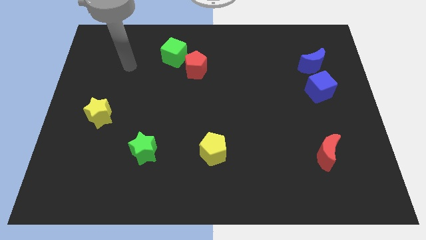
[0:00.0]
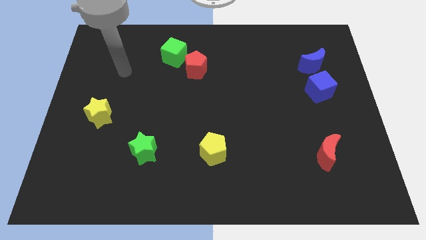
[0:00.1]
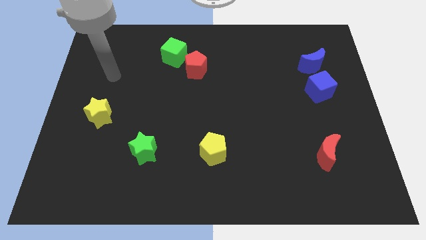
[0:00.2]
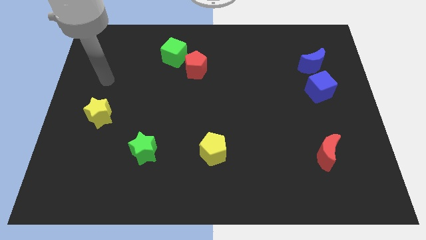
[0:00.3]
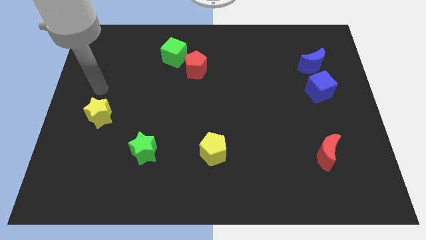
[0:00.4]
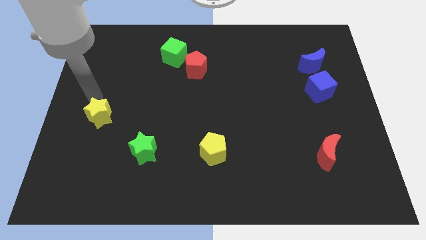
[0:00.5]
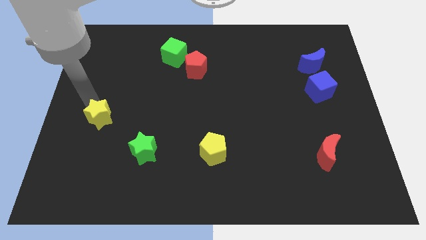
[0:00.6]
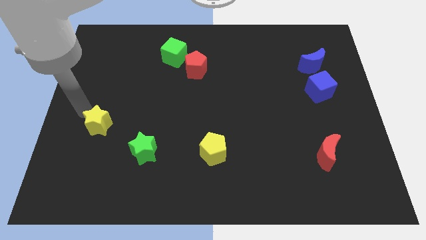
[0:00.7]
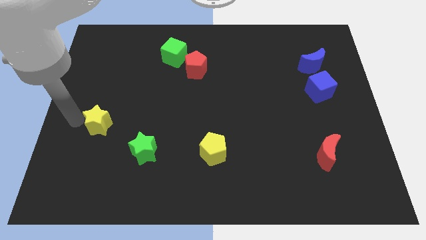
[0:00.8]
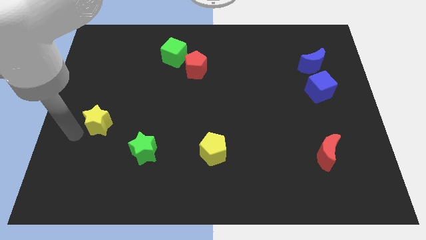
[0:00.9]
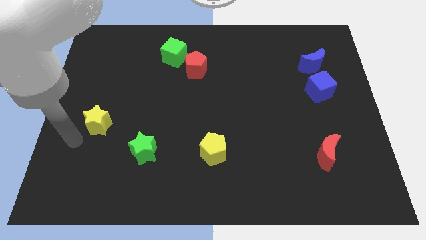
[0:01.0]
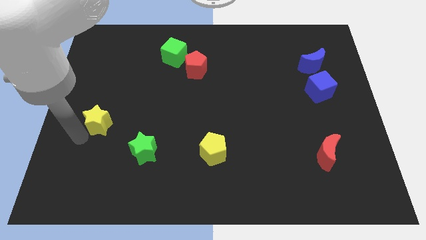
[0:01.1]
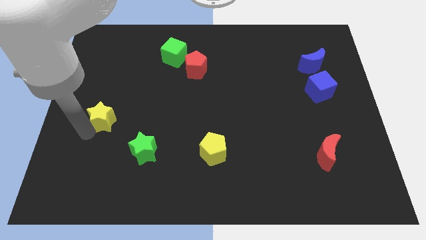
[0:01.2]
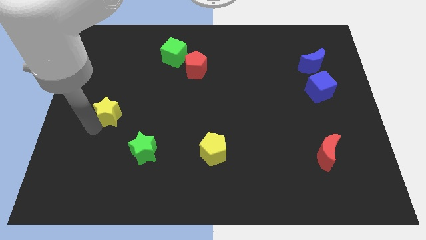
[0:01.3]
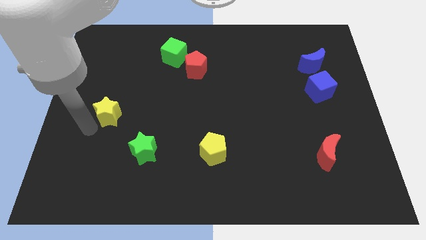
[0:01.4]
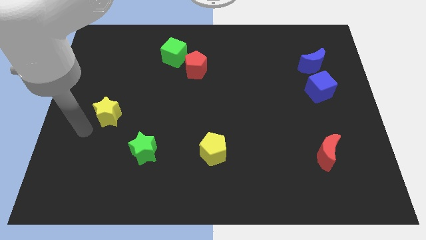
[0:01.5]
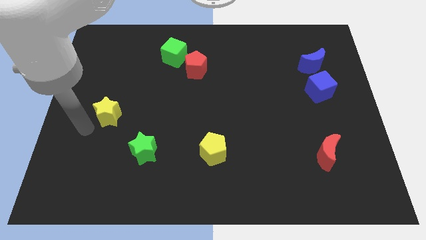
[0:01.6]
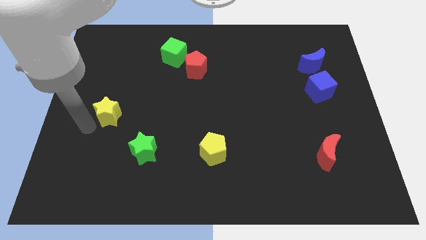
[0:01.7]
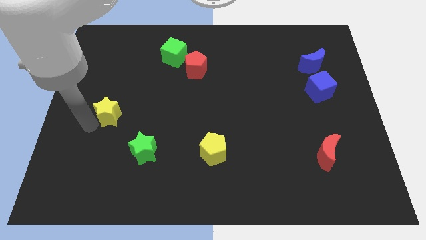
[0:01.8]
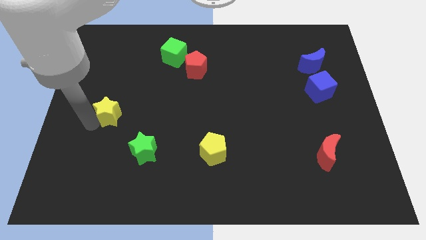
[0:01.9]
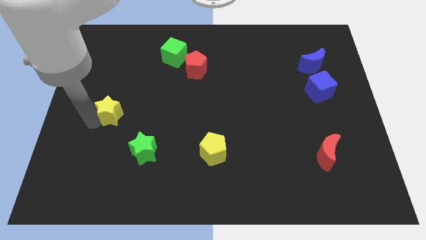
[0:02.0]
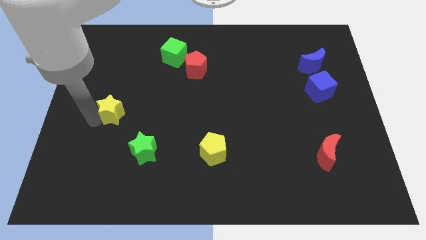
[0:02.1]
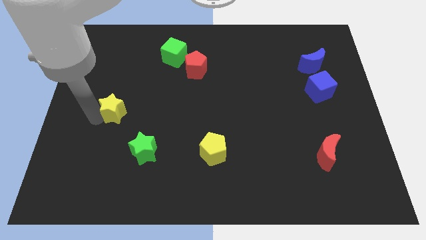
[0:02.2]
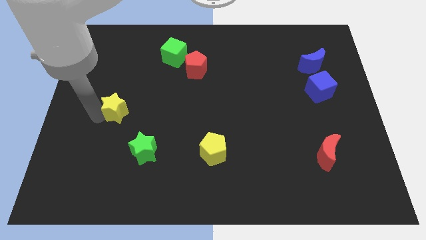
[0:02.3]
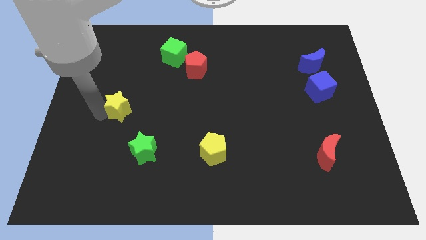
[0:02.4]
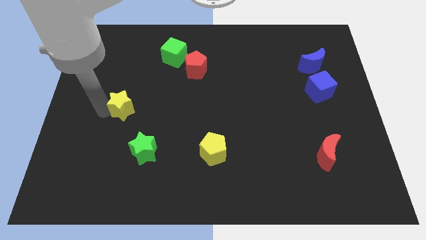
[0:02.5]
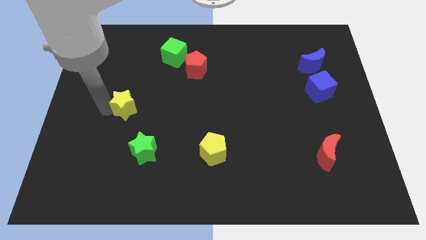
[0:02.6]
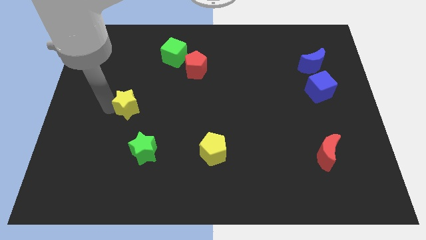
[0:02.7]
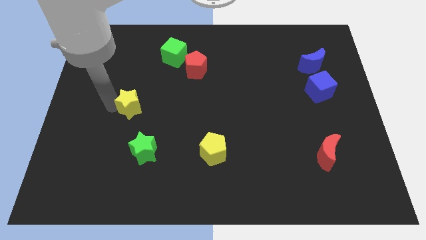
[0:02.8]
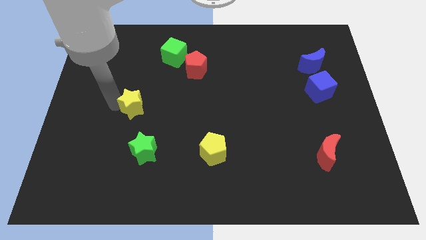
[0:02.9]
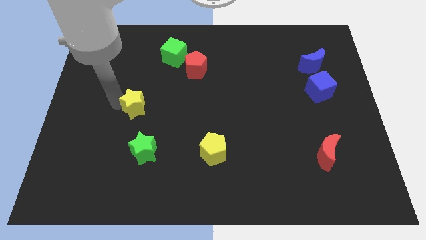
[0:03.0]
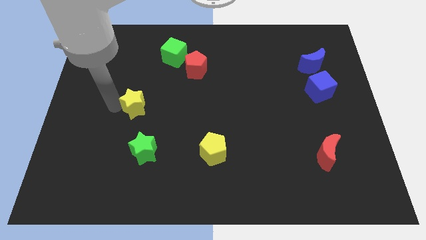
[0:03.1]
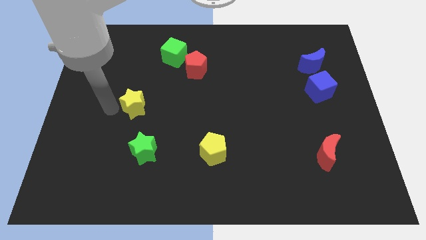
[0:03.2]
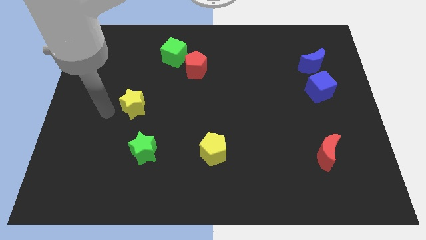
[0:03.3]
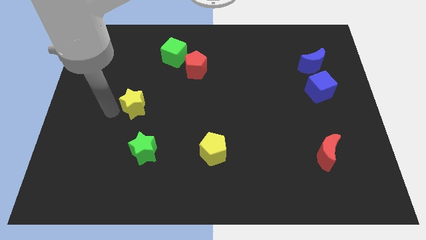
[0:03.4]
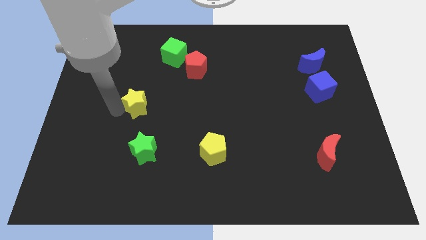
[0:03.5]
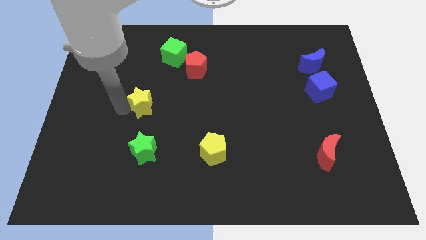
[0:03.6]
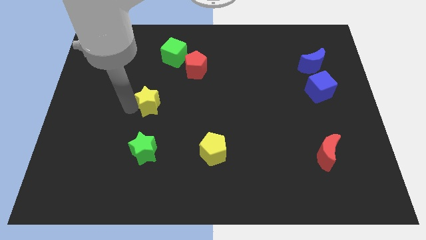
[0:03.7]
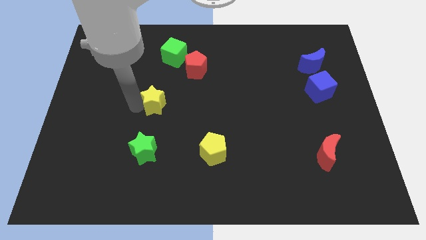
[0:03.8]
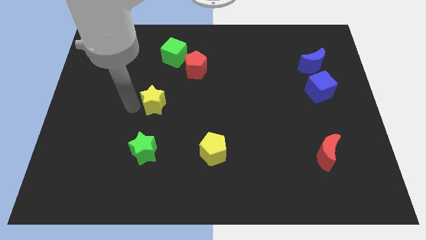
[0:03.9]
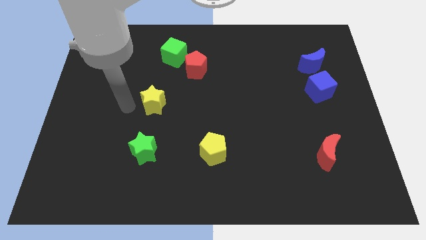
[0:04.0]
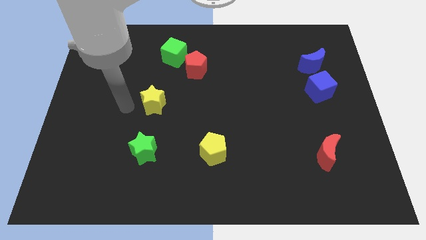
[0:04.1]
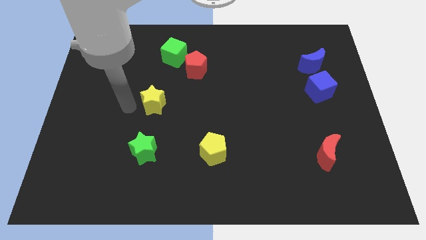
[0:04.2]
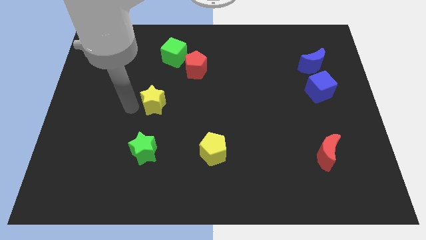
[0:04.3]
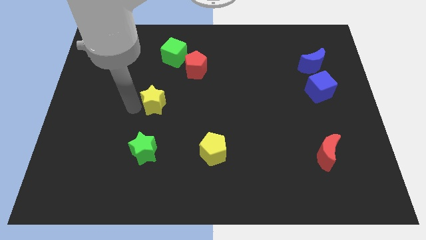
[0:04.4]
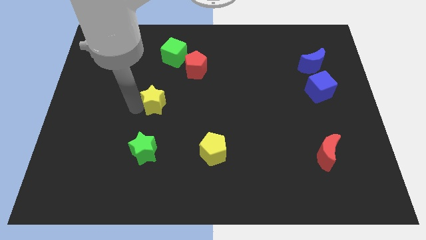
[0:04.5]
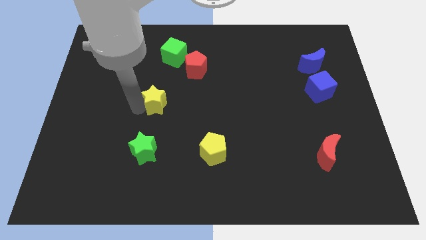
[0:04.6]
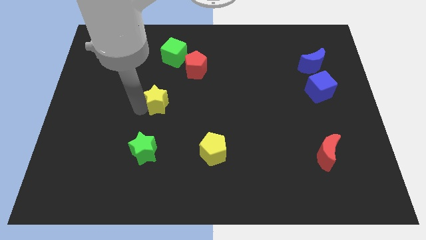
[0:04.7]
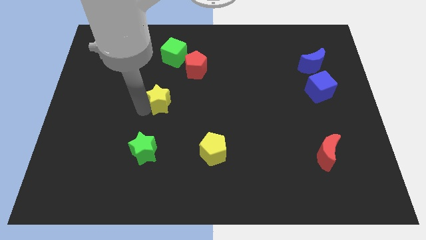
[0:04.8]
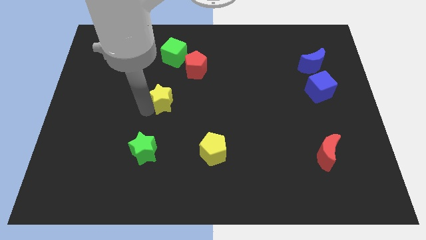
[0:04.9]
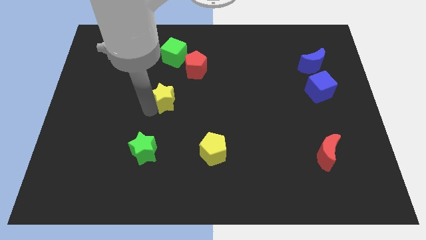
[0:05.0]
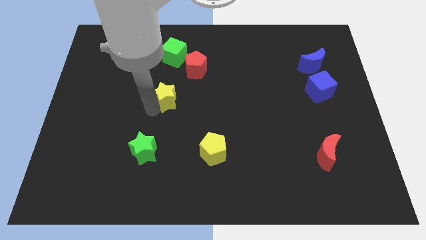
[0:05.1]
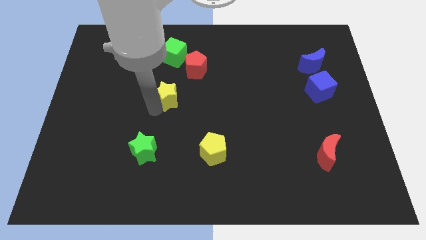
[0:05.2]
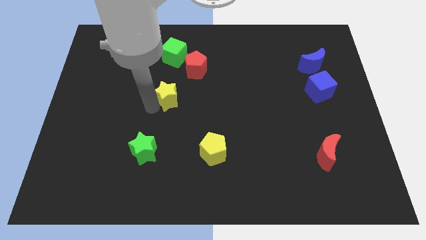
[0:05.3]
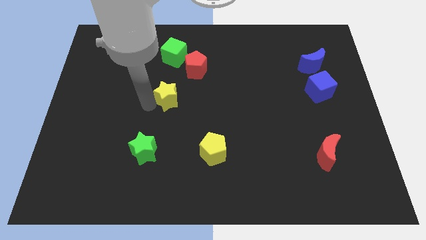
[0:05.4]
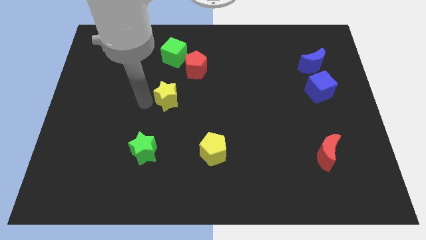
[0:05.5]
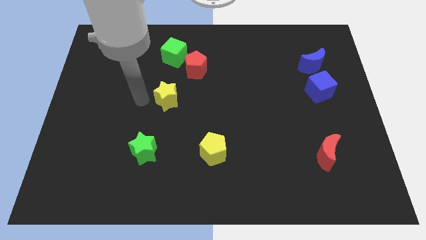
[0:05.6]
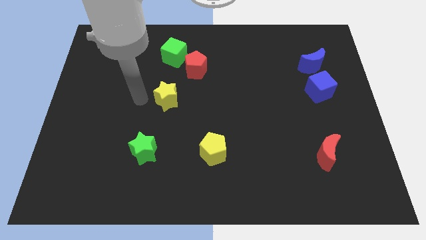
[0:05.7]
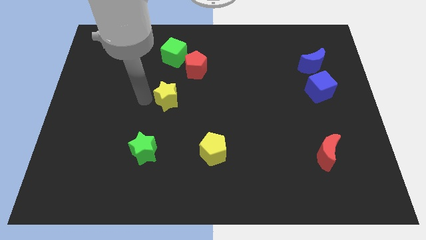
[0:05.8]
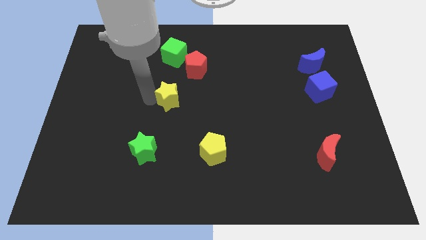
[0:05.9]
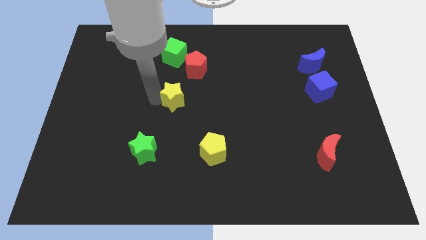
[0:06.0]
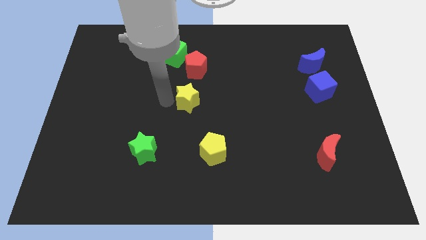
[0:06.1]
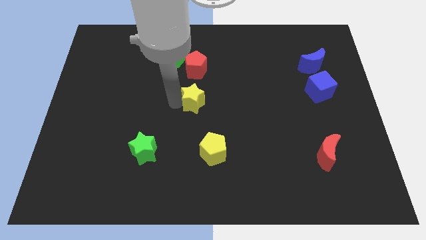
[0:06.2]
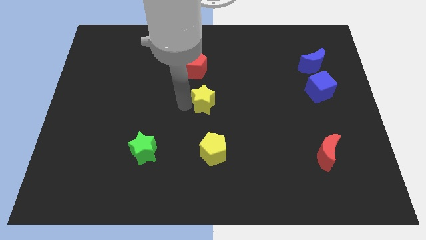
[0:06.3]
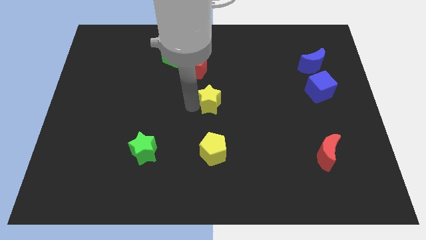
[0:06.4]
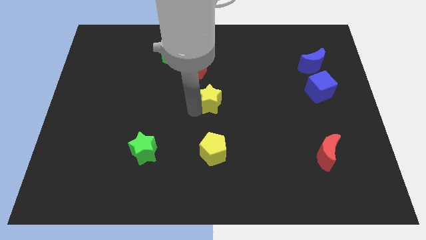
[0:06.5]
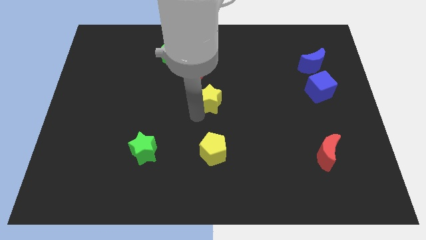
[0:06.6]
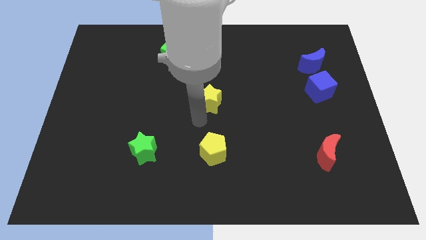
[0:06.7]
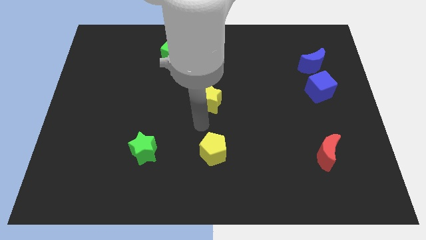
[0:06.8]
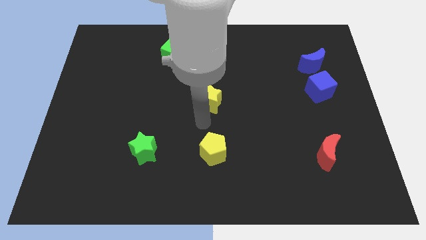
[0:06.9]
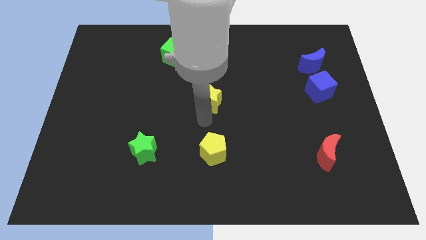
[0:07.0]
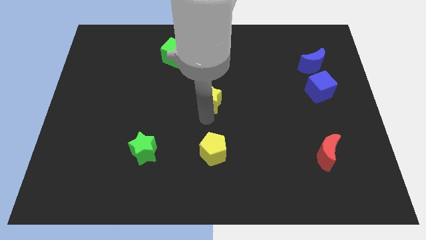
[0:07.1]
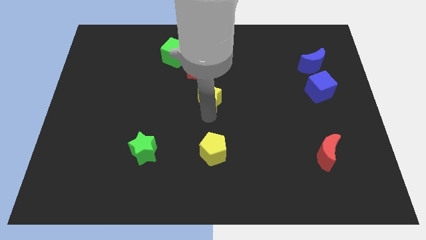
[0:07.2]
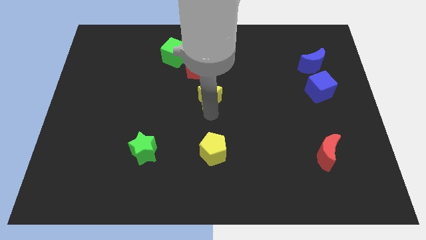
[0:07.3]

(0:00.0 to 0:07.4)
move the yellow star to the bottom right side of the red pentagon

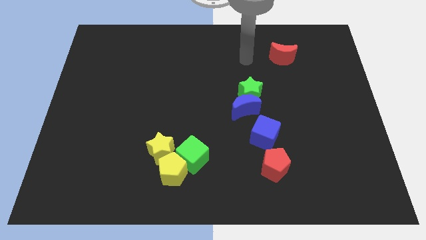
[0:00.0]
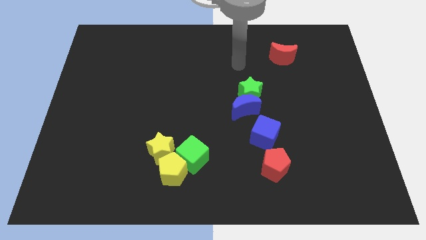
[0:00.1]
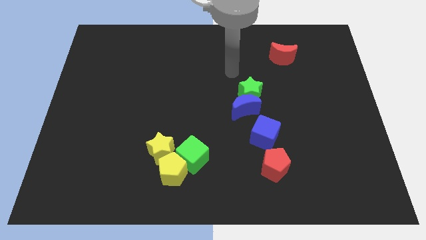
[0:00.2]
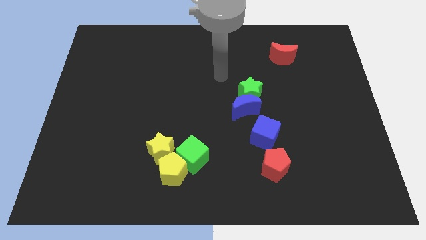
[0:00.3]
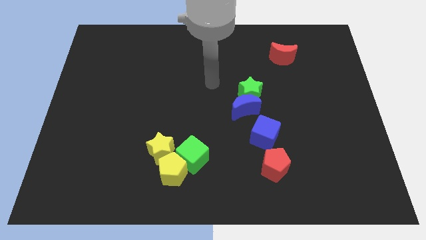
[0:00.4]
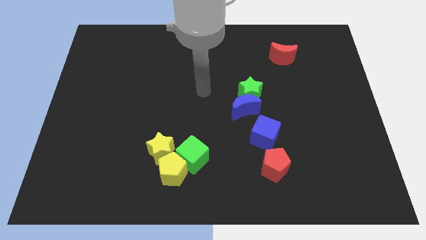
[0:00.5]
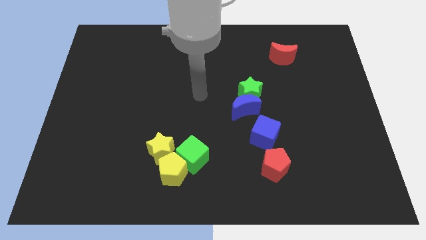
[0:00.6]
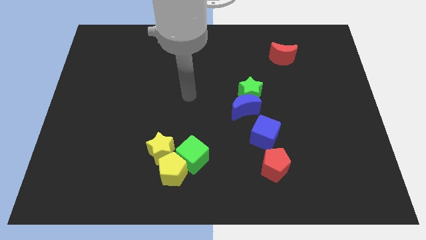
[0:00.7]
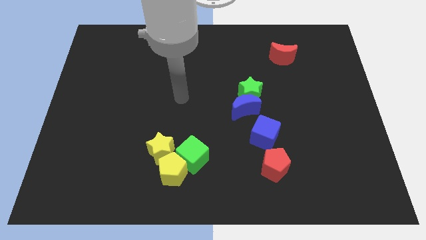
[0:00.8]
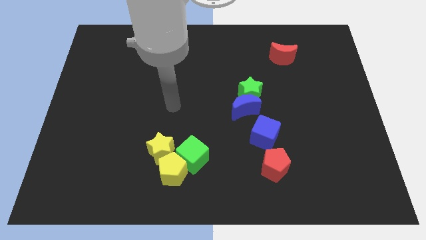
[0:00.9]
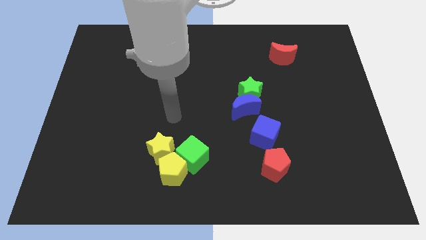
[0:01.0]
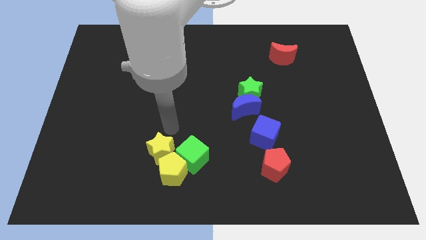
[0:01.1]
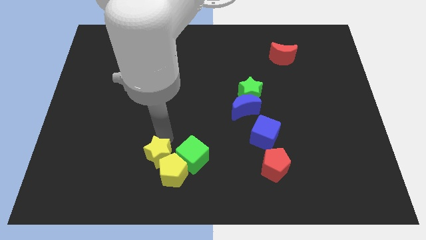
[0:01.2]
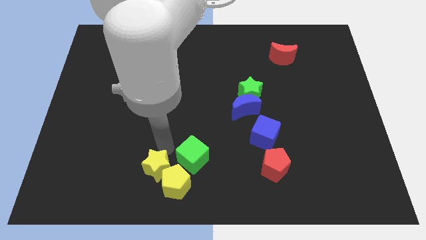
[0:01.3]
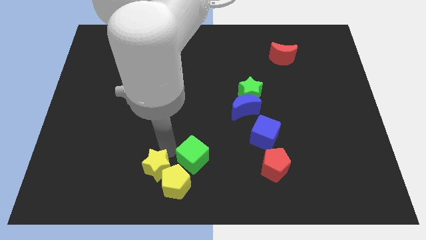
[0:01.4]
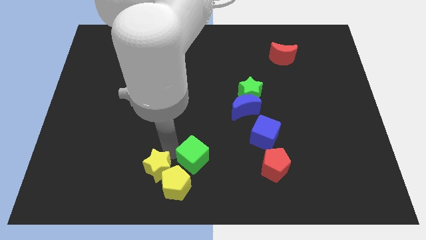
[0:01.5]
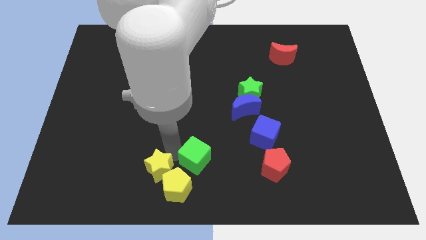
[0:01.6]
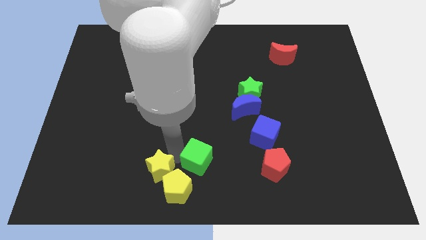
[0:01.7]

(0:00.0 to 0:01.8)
slide the green cube left of the red pentagon
